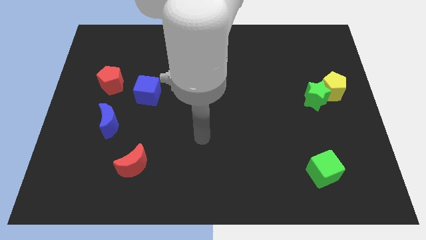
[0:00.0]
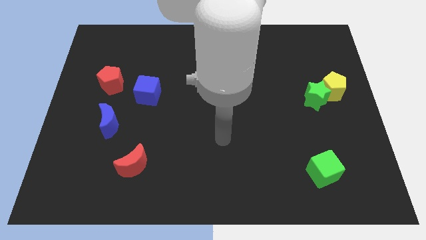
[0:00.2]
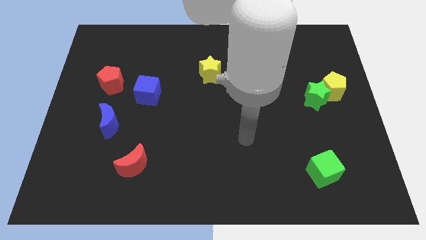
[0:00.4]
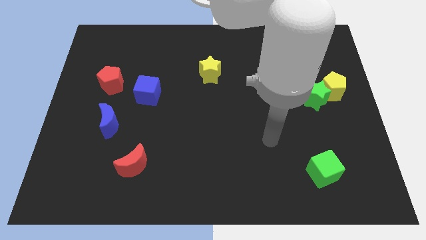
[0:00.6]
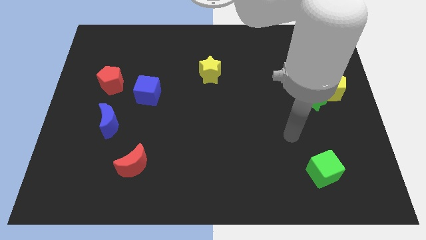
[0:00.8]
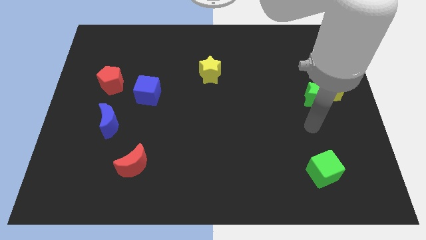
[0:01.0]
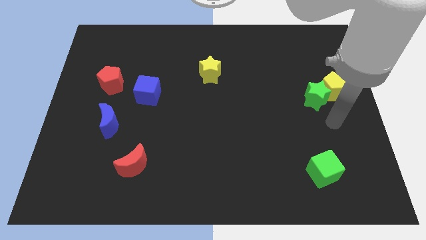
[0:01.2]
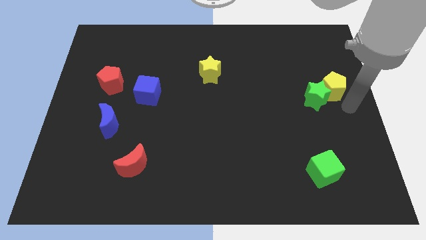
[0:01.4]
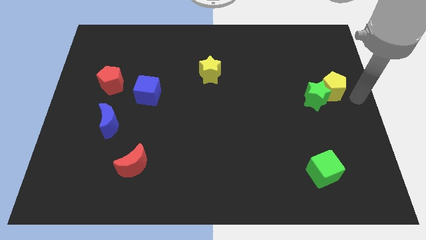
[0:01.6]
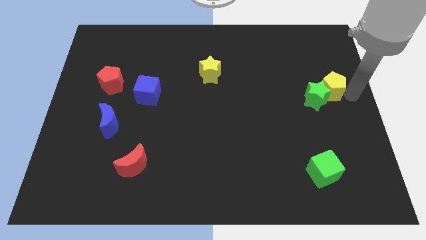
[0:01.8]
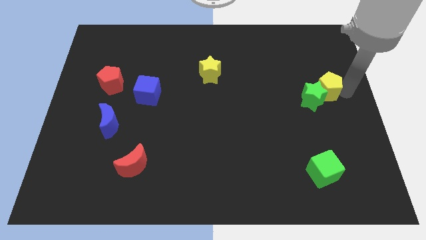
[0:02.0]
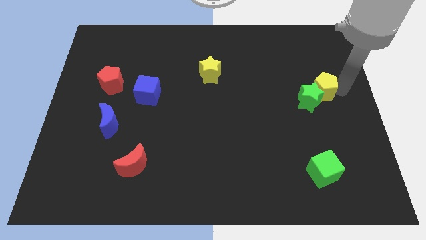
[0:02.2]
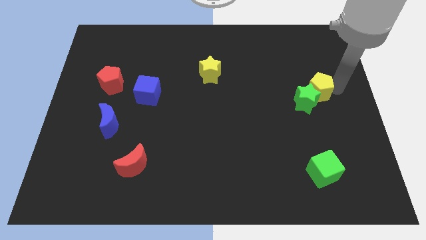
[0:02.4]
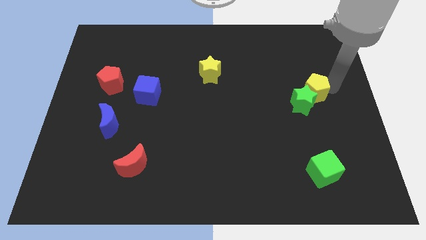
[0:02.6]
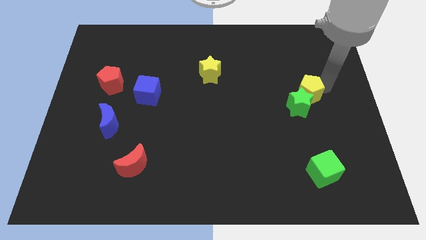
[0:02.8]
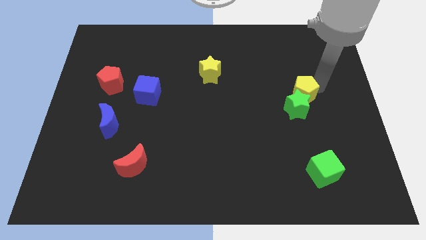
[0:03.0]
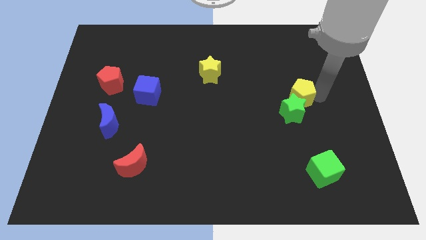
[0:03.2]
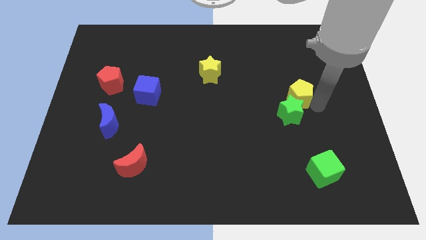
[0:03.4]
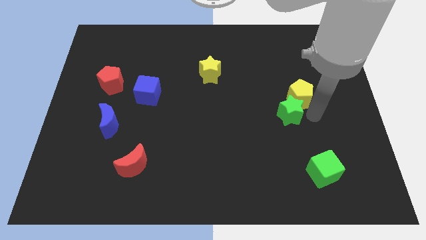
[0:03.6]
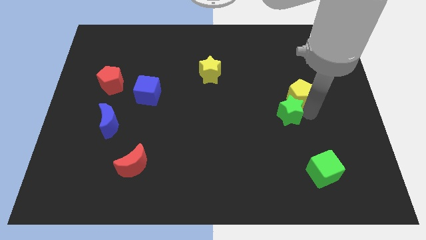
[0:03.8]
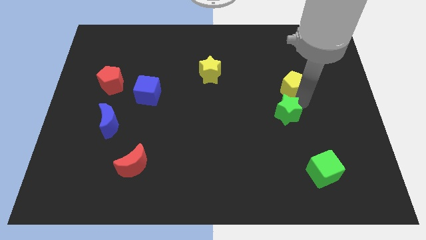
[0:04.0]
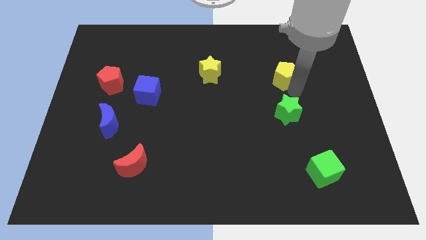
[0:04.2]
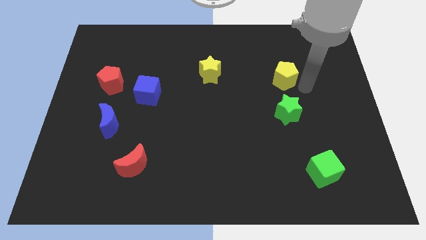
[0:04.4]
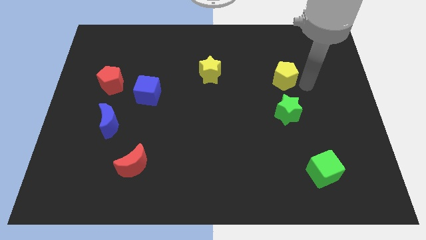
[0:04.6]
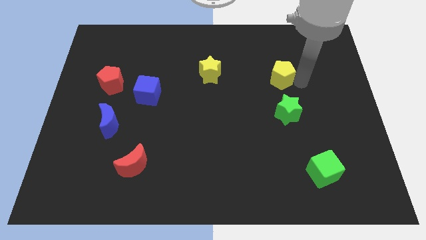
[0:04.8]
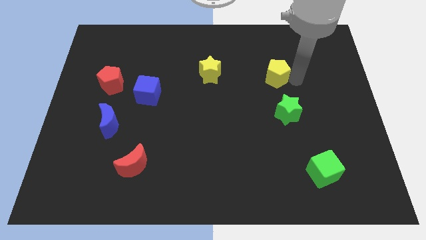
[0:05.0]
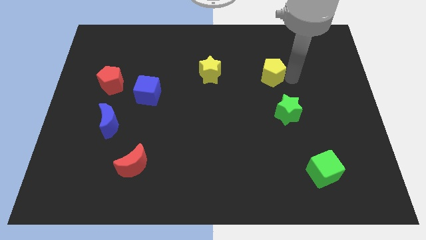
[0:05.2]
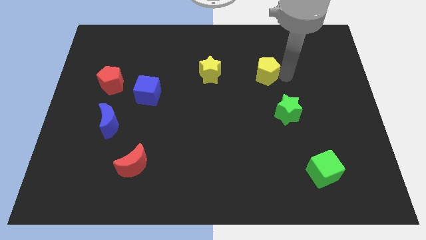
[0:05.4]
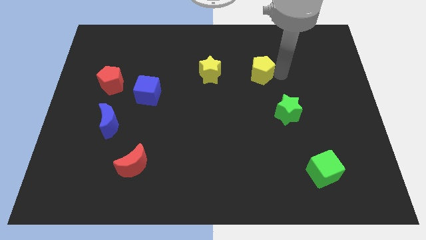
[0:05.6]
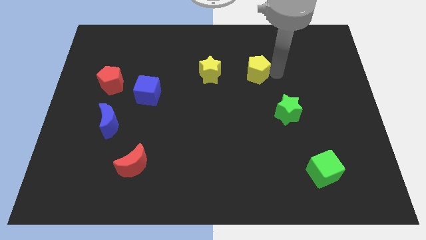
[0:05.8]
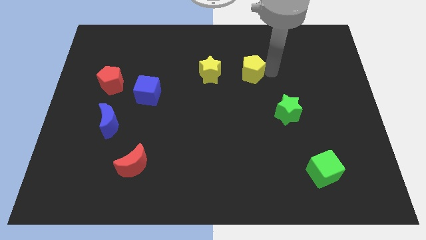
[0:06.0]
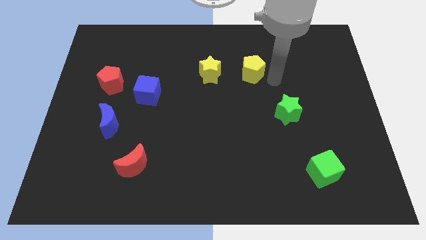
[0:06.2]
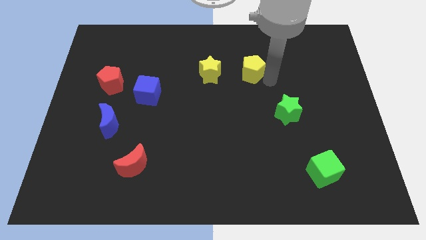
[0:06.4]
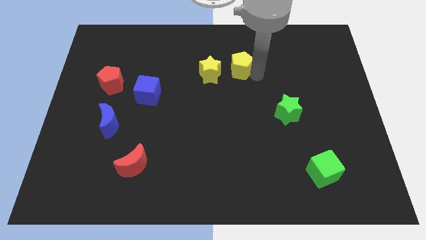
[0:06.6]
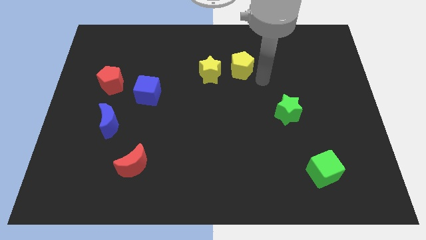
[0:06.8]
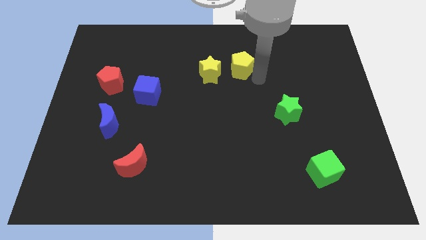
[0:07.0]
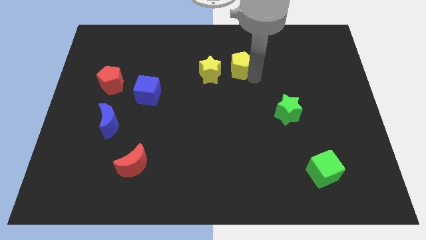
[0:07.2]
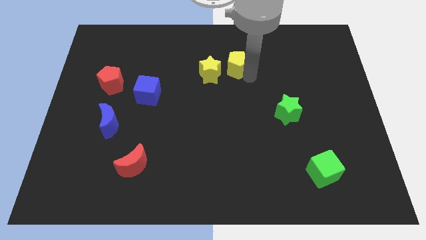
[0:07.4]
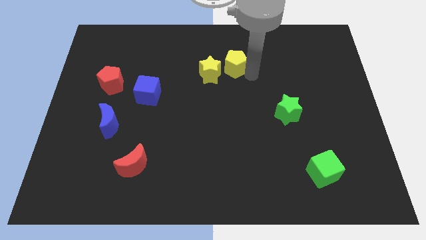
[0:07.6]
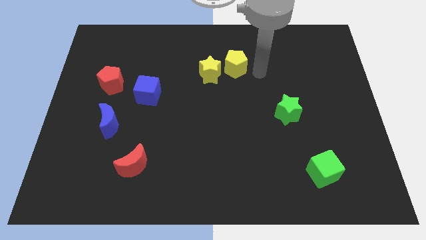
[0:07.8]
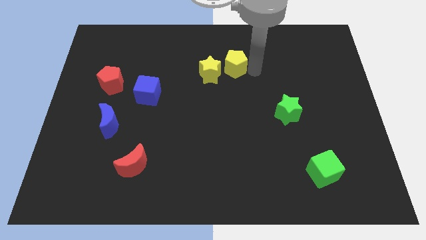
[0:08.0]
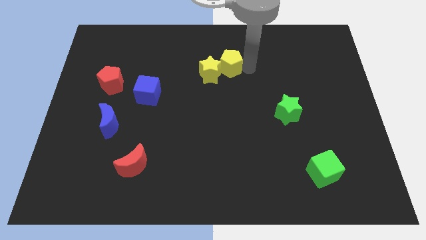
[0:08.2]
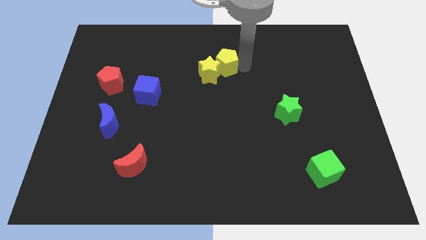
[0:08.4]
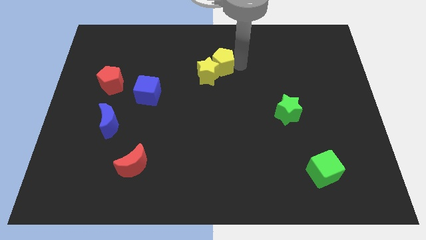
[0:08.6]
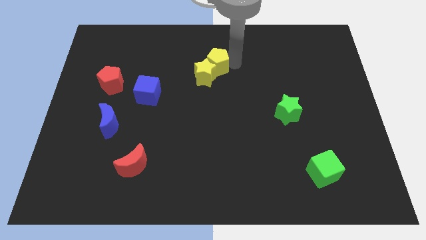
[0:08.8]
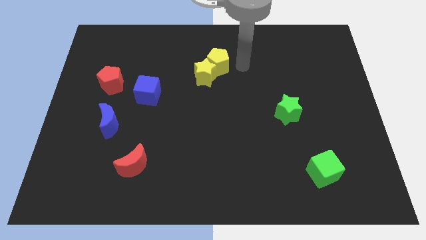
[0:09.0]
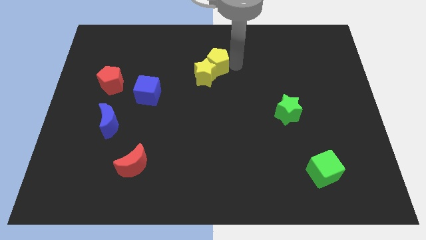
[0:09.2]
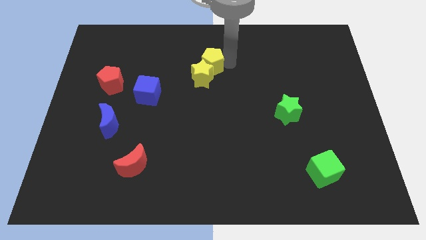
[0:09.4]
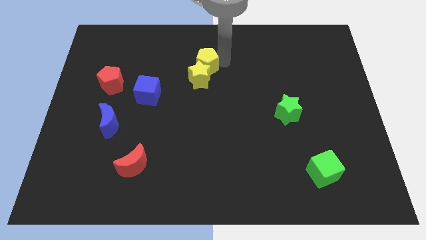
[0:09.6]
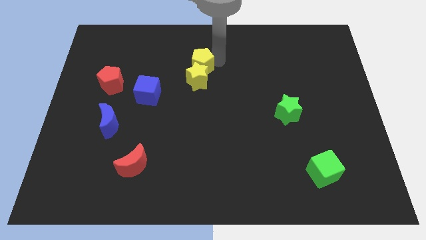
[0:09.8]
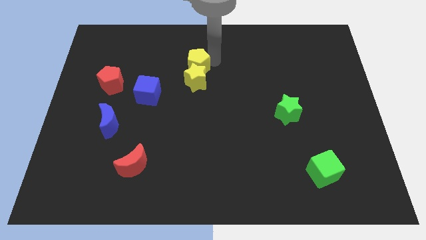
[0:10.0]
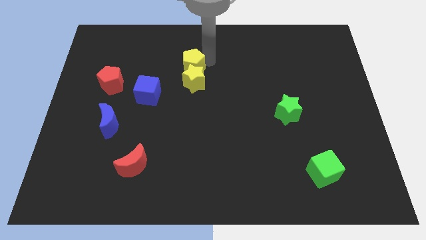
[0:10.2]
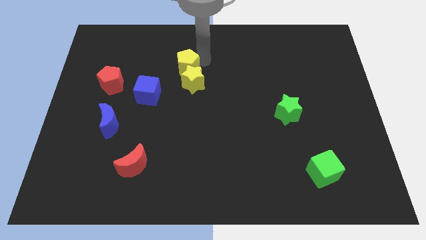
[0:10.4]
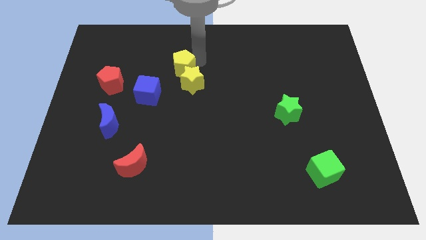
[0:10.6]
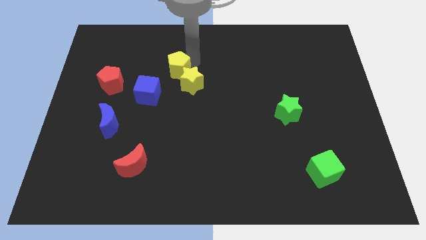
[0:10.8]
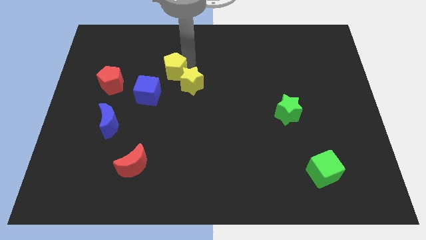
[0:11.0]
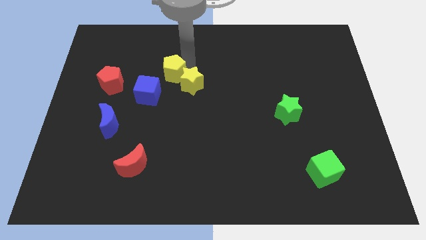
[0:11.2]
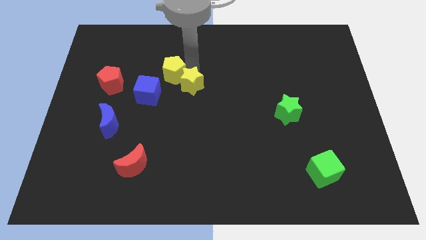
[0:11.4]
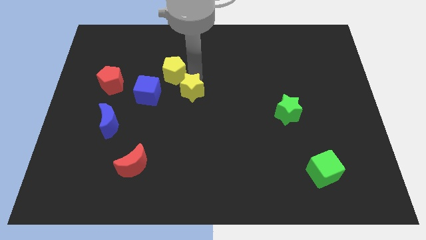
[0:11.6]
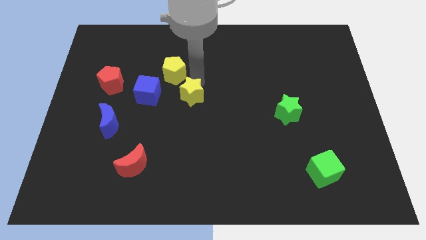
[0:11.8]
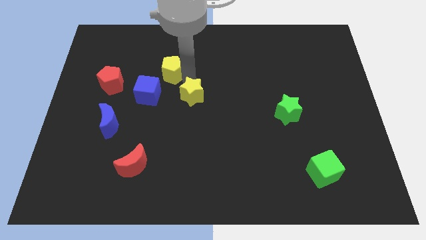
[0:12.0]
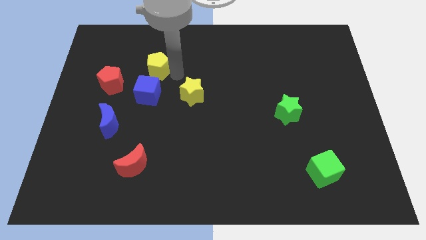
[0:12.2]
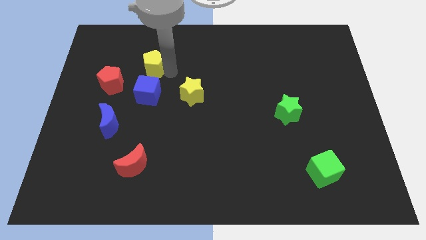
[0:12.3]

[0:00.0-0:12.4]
move the yellow pentagon to the top right of the red pentagon

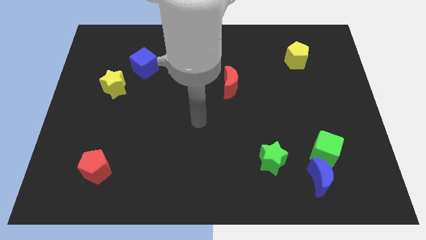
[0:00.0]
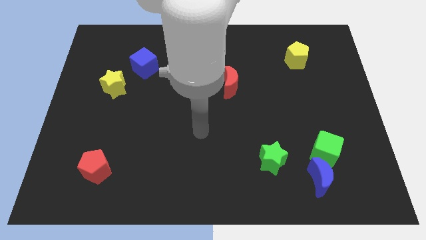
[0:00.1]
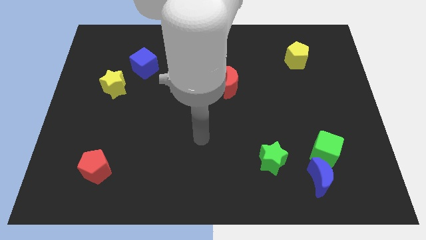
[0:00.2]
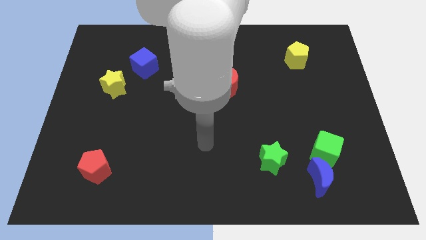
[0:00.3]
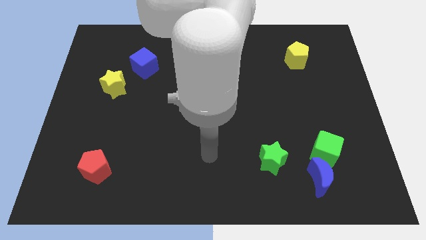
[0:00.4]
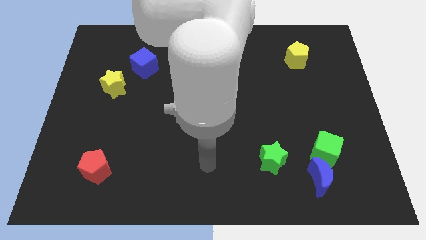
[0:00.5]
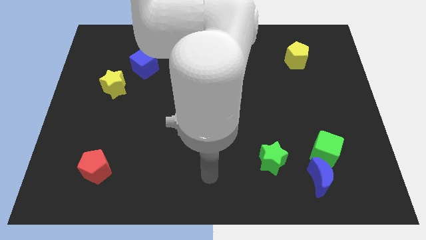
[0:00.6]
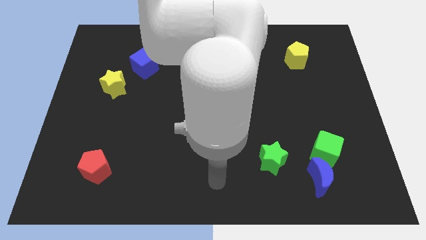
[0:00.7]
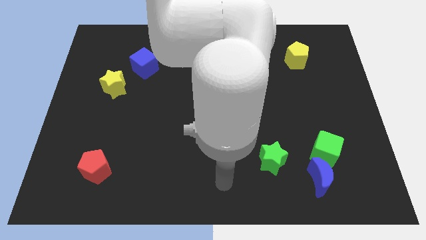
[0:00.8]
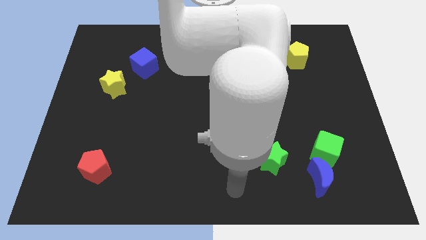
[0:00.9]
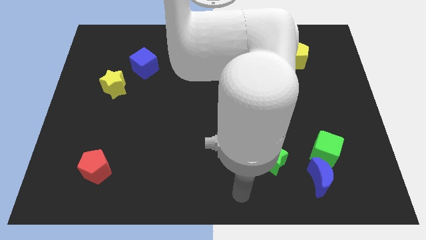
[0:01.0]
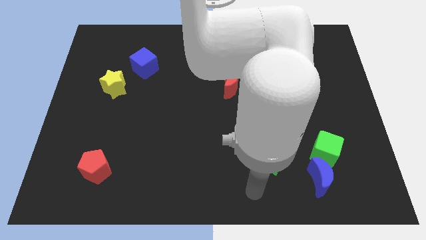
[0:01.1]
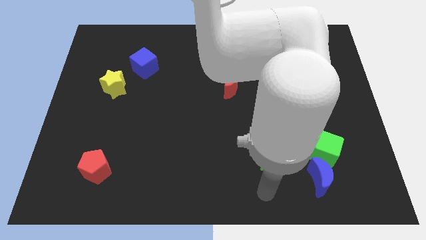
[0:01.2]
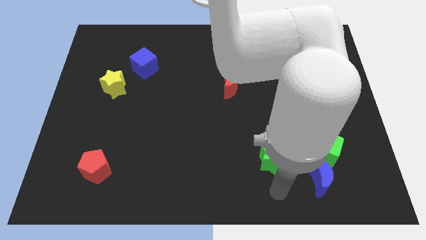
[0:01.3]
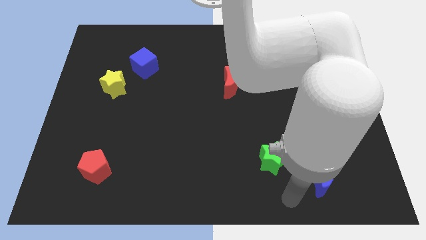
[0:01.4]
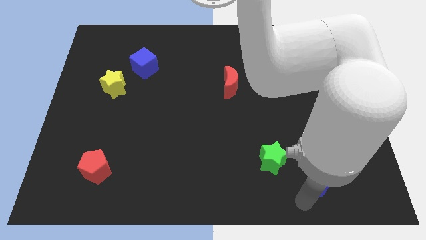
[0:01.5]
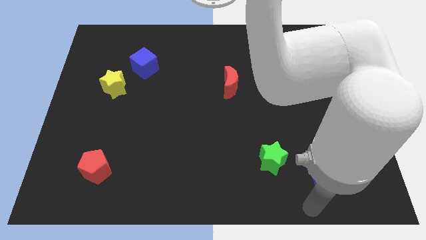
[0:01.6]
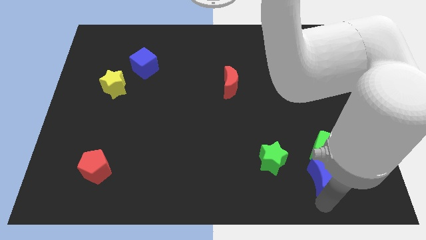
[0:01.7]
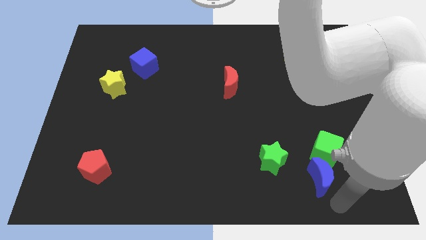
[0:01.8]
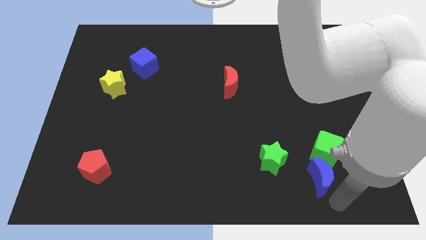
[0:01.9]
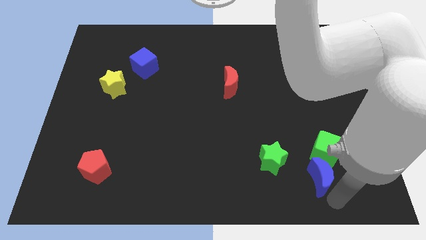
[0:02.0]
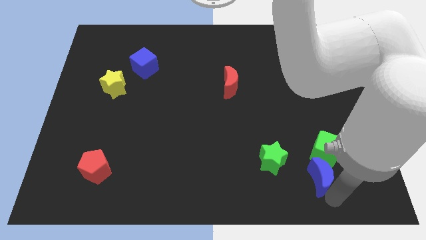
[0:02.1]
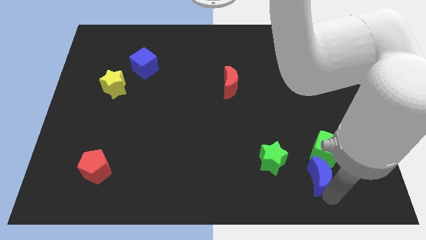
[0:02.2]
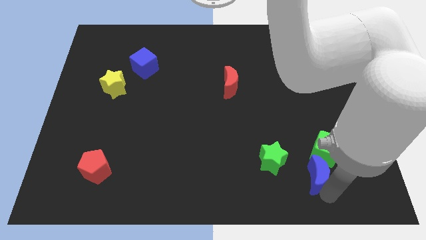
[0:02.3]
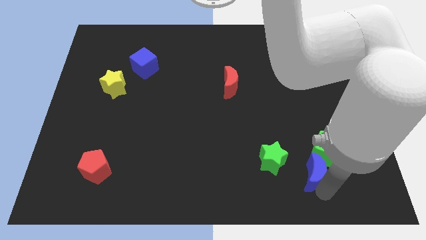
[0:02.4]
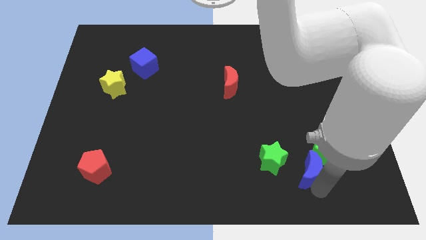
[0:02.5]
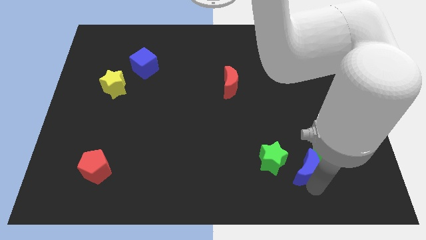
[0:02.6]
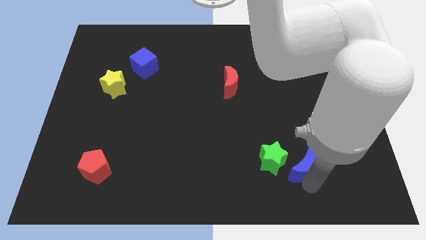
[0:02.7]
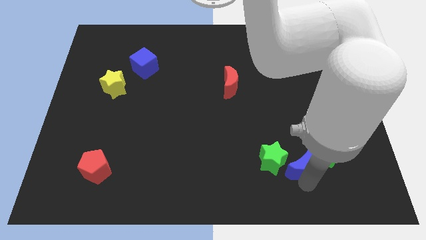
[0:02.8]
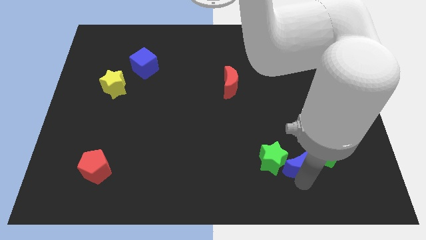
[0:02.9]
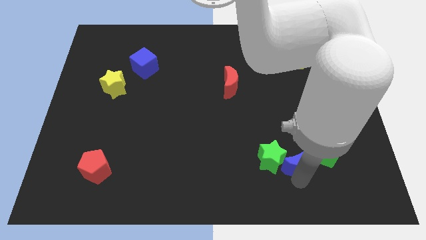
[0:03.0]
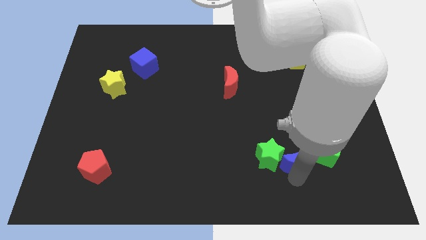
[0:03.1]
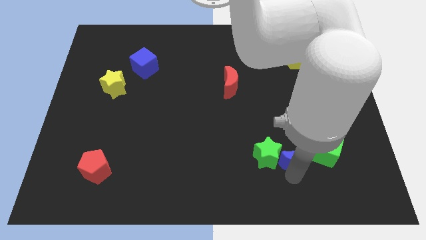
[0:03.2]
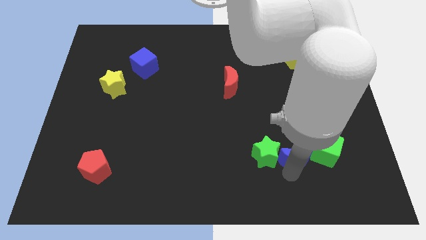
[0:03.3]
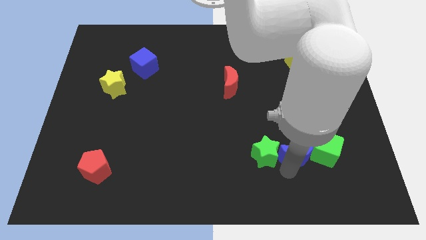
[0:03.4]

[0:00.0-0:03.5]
move the blue moon to the top right of the green star
